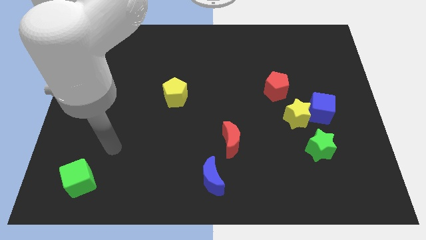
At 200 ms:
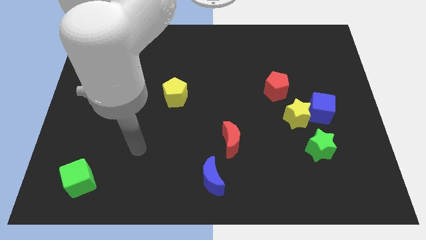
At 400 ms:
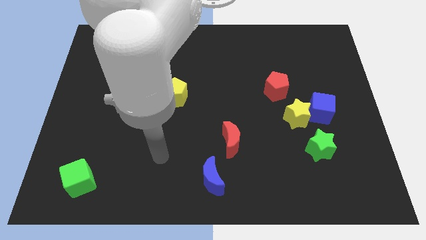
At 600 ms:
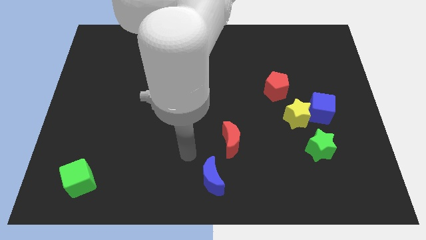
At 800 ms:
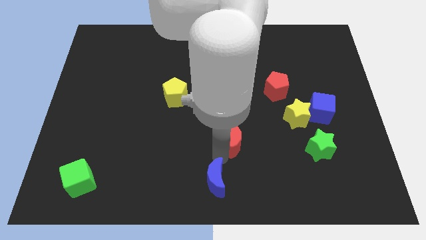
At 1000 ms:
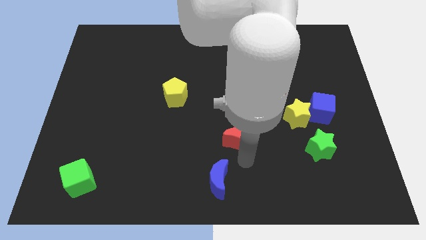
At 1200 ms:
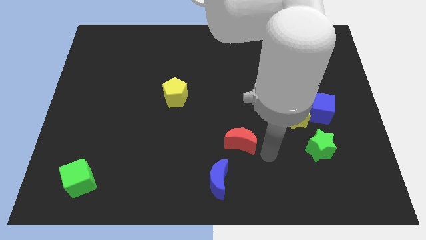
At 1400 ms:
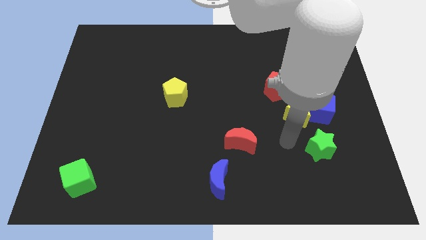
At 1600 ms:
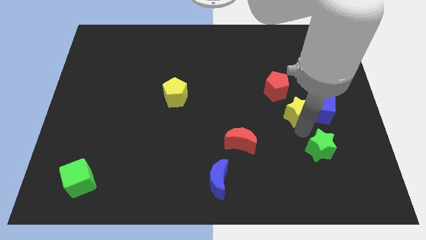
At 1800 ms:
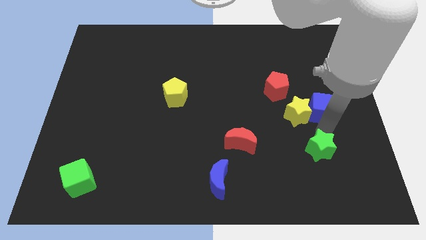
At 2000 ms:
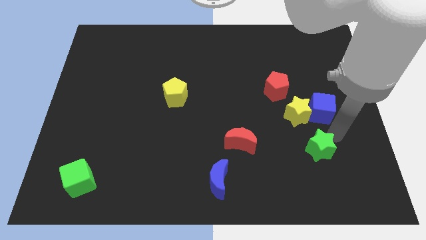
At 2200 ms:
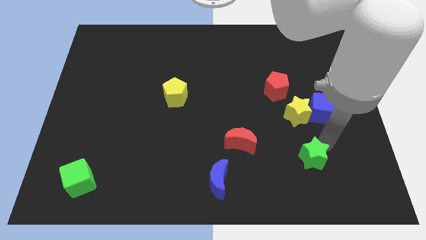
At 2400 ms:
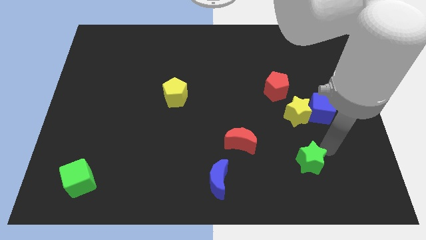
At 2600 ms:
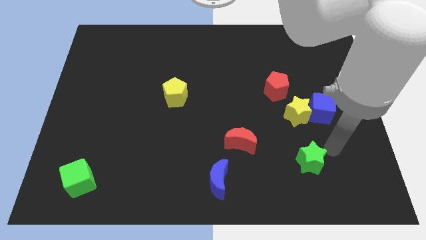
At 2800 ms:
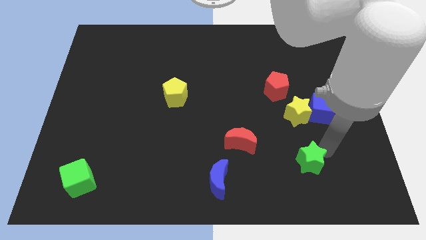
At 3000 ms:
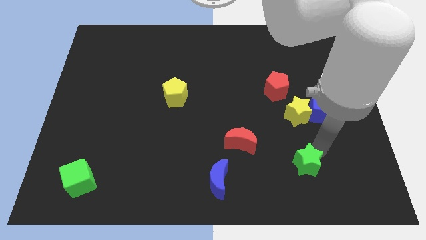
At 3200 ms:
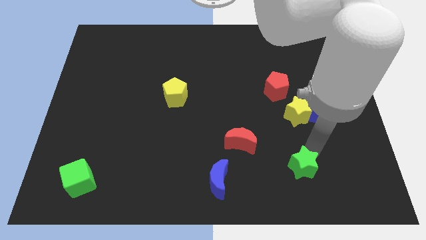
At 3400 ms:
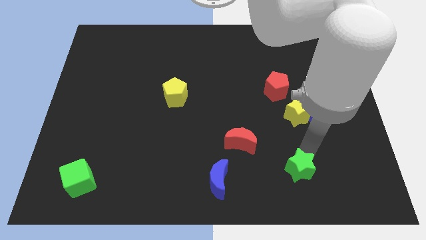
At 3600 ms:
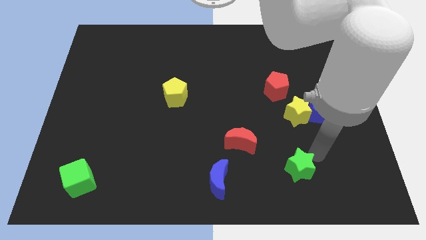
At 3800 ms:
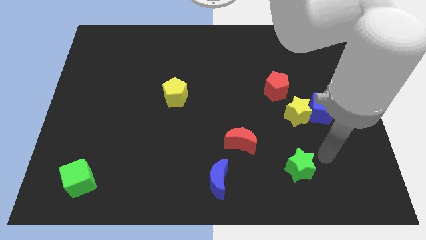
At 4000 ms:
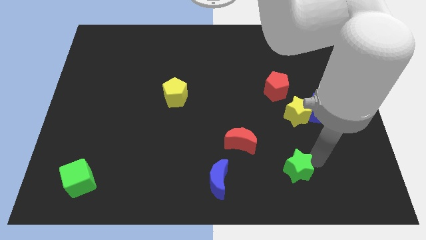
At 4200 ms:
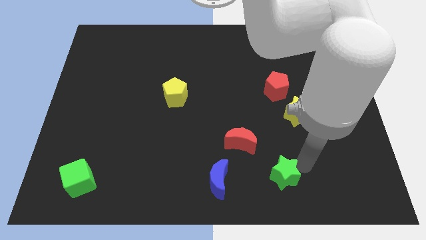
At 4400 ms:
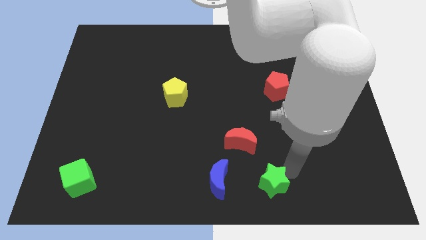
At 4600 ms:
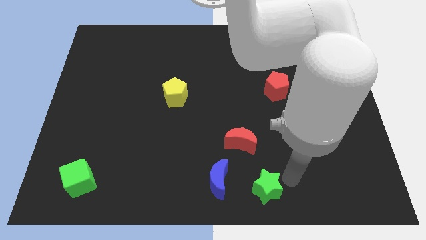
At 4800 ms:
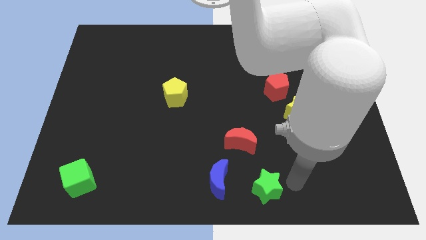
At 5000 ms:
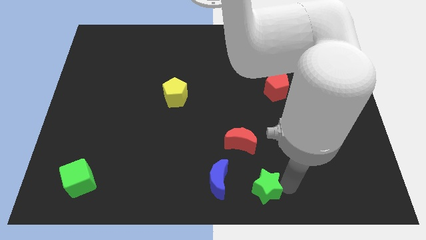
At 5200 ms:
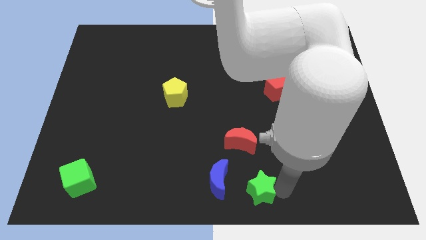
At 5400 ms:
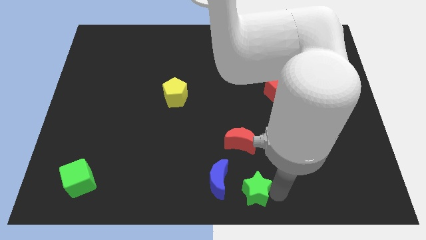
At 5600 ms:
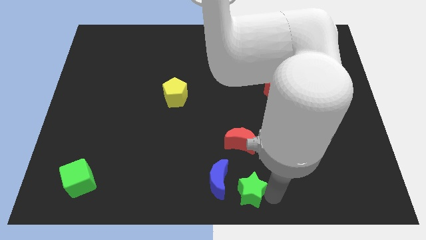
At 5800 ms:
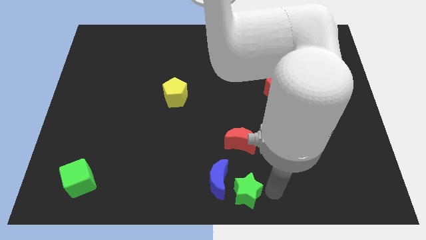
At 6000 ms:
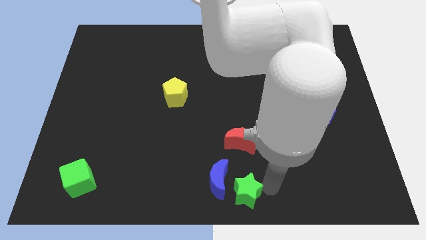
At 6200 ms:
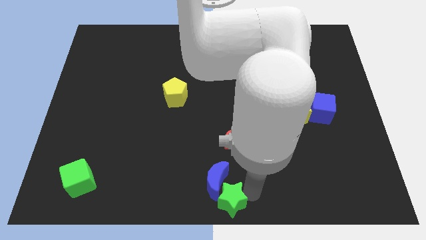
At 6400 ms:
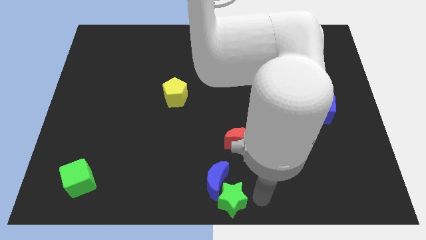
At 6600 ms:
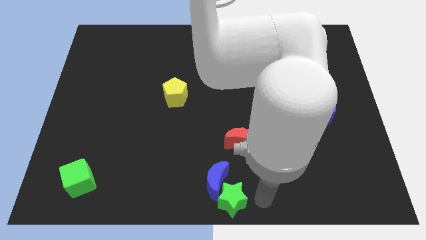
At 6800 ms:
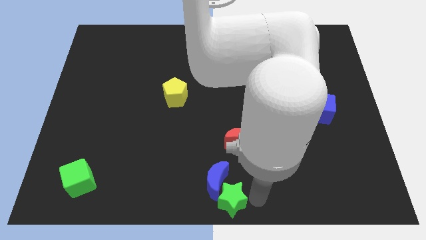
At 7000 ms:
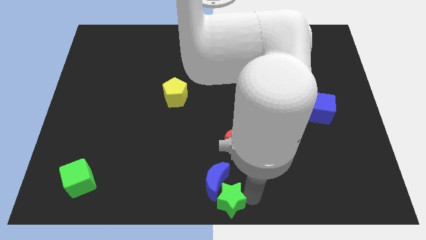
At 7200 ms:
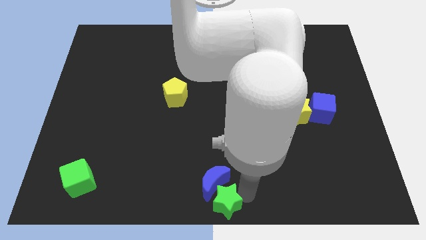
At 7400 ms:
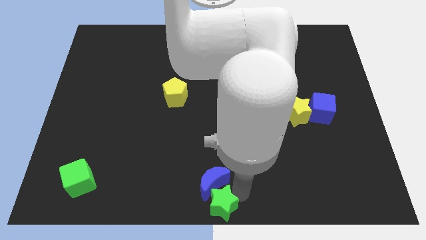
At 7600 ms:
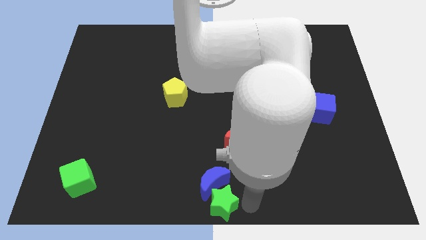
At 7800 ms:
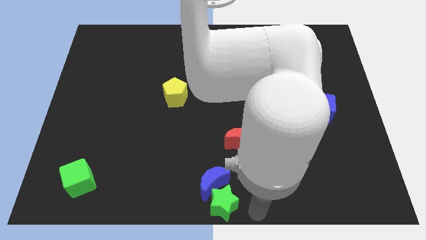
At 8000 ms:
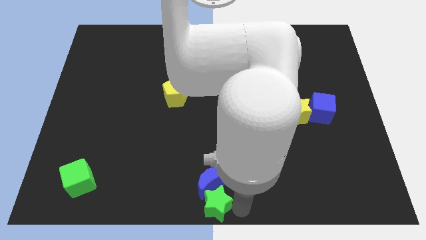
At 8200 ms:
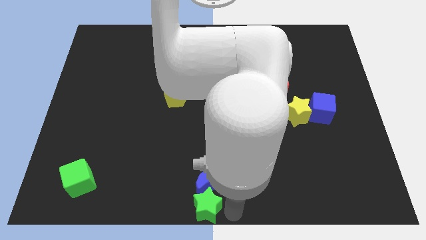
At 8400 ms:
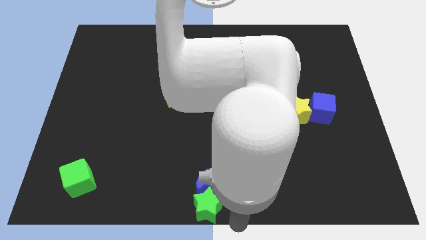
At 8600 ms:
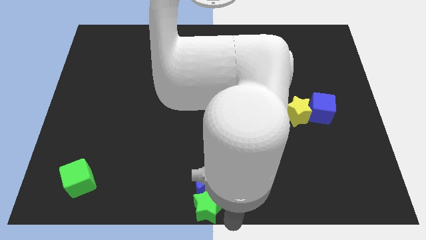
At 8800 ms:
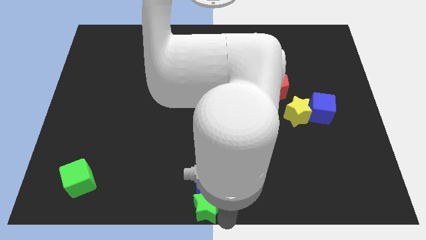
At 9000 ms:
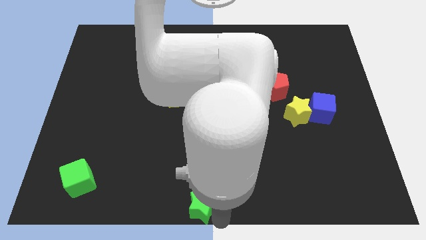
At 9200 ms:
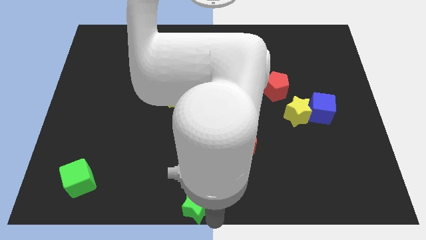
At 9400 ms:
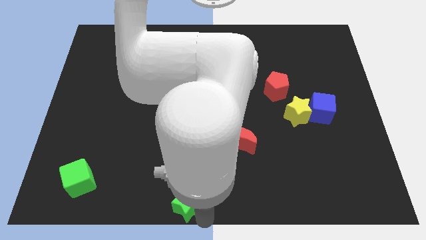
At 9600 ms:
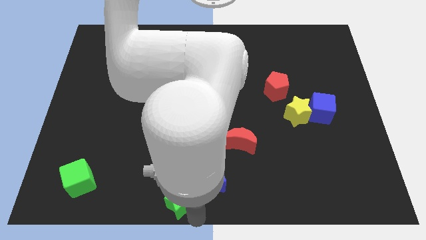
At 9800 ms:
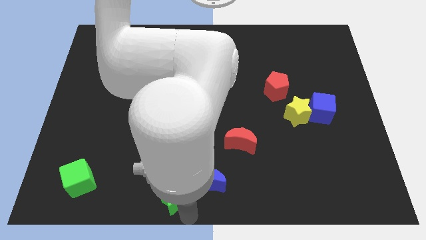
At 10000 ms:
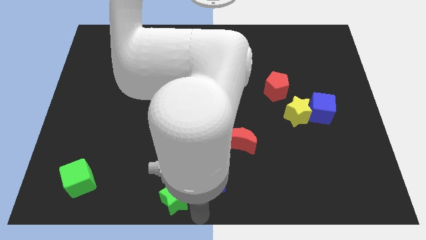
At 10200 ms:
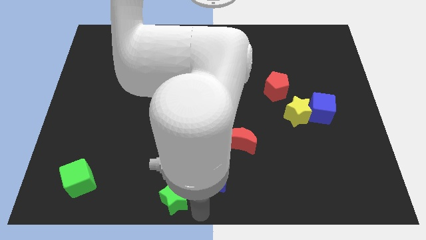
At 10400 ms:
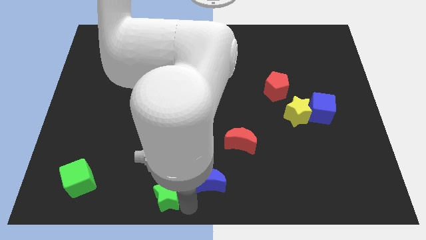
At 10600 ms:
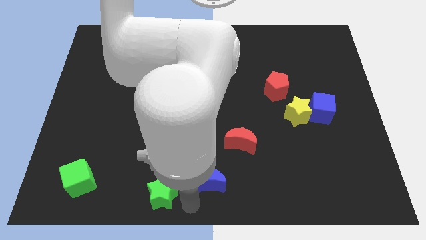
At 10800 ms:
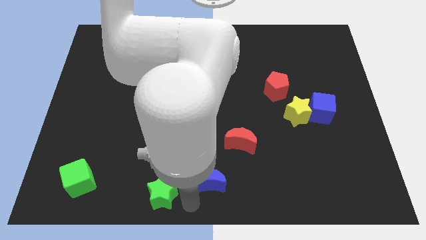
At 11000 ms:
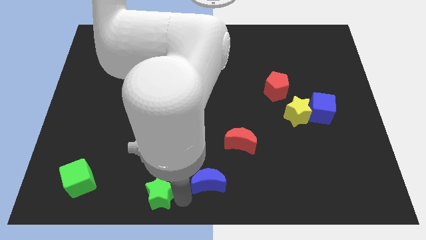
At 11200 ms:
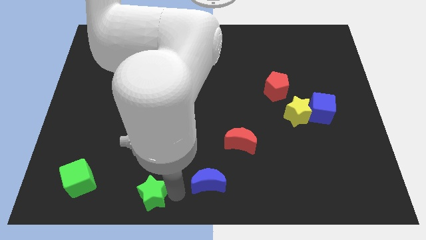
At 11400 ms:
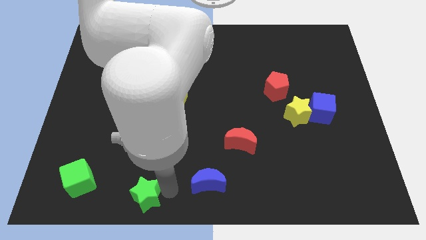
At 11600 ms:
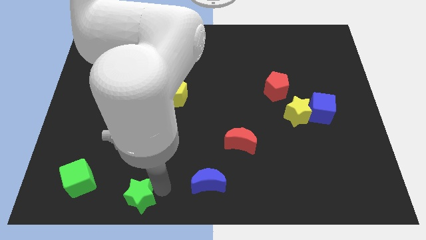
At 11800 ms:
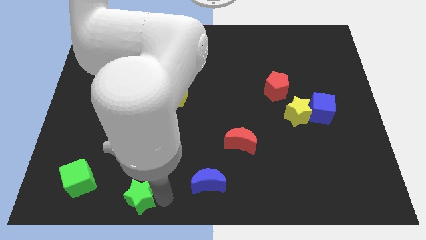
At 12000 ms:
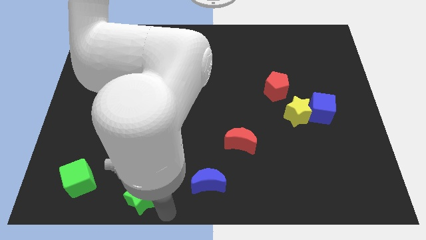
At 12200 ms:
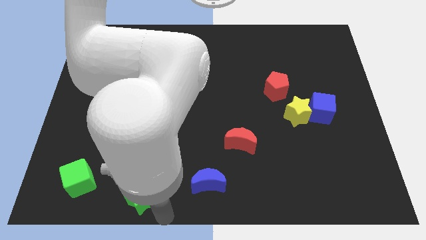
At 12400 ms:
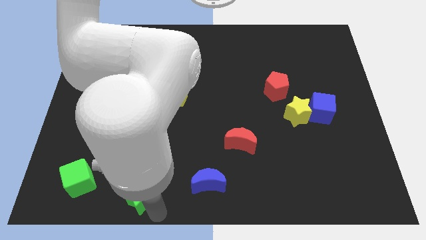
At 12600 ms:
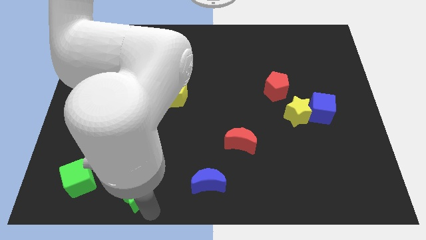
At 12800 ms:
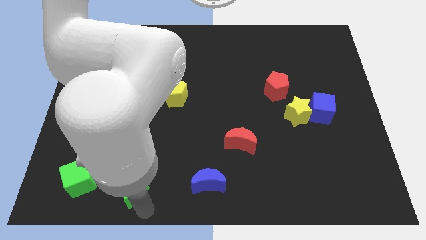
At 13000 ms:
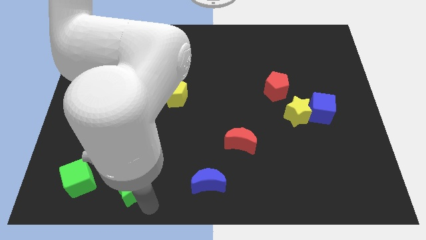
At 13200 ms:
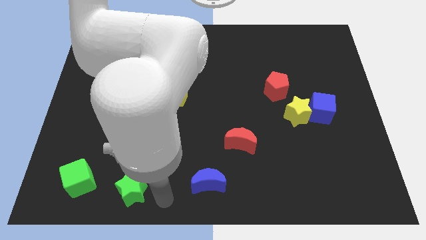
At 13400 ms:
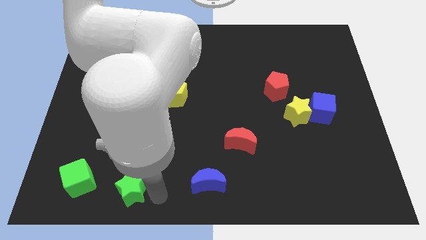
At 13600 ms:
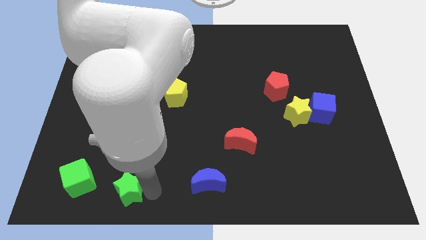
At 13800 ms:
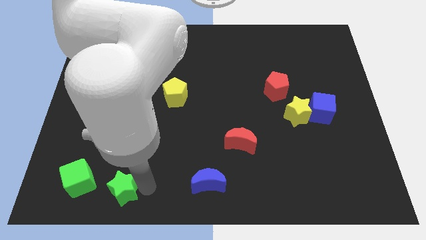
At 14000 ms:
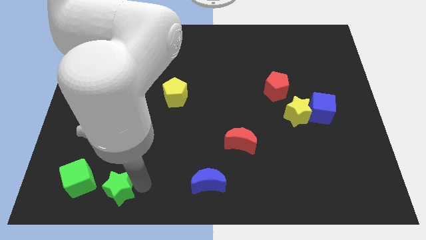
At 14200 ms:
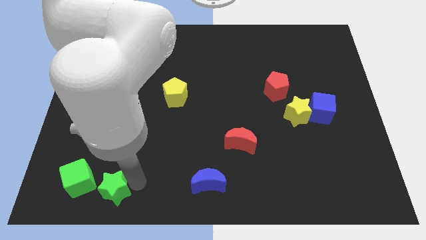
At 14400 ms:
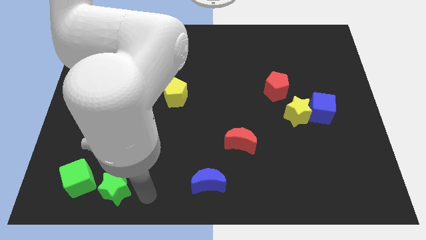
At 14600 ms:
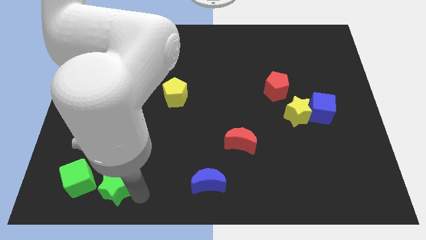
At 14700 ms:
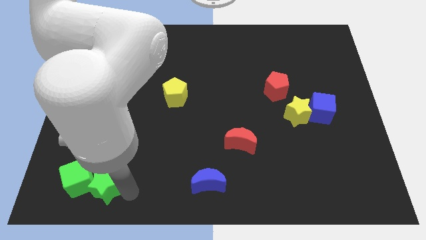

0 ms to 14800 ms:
put the green star close to the green cube

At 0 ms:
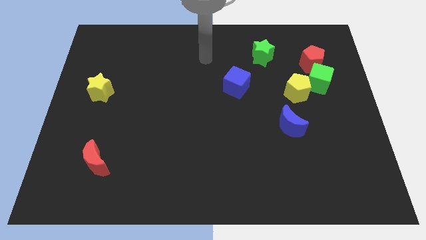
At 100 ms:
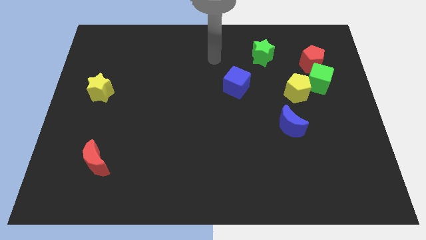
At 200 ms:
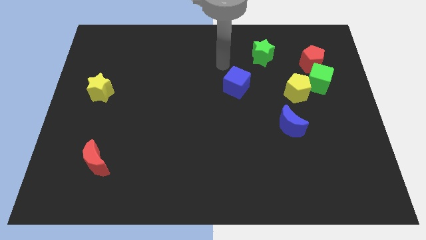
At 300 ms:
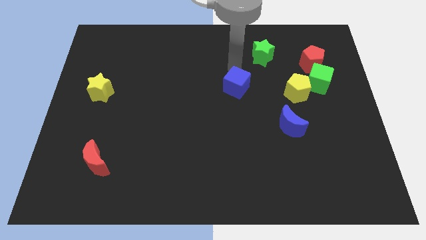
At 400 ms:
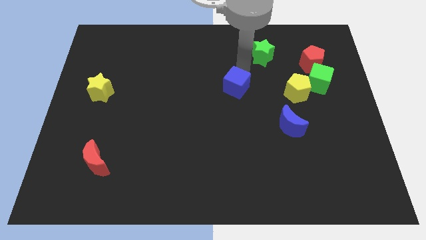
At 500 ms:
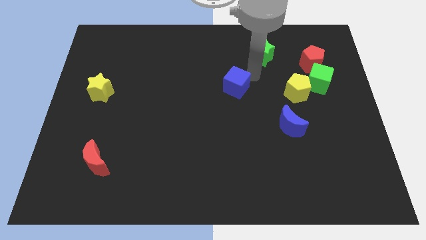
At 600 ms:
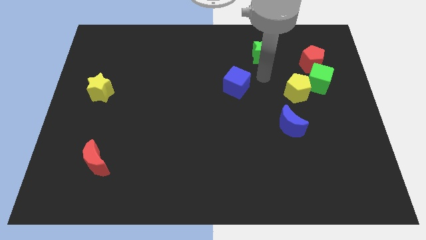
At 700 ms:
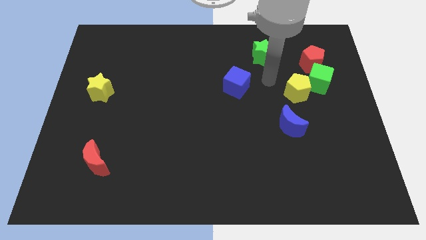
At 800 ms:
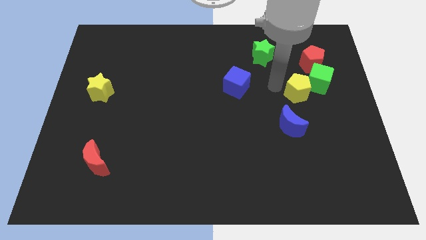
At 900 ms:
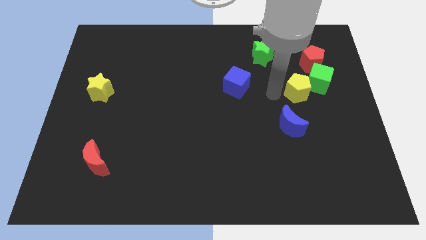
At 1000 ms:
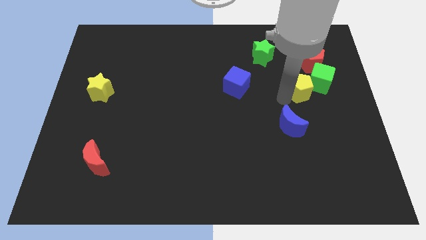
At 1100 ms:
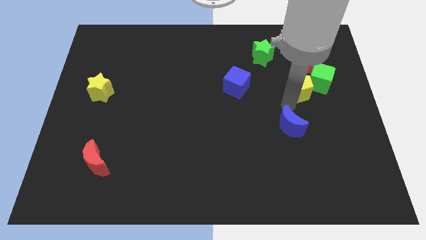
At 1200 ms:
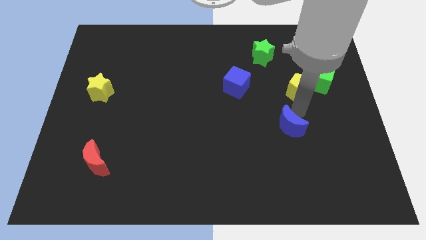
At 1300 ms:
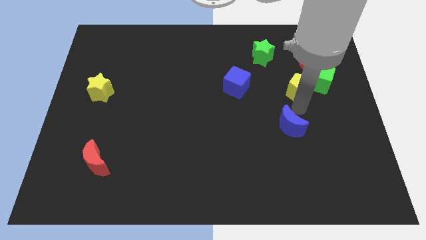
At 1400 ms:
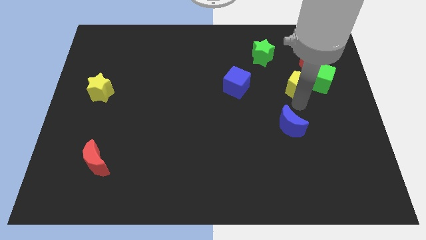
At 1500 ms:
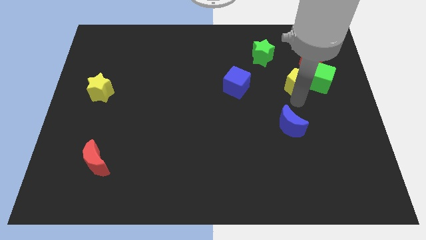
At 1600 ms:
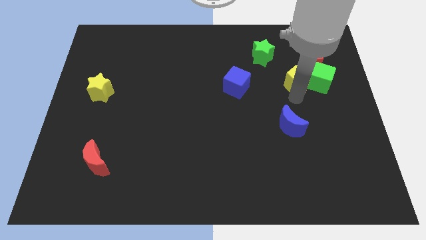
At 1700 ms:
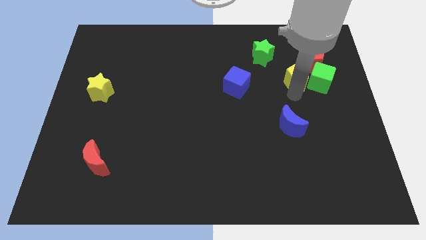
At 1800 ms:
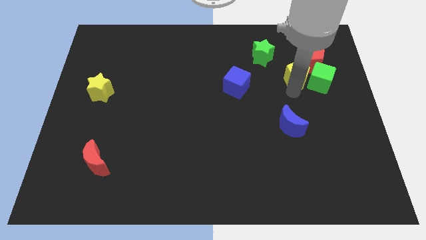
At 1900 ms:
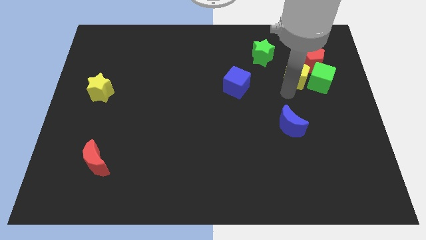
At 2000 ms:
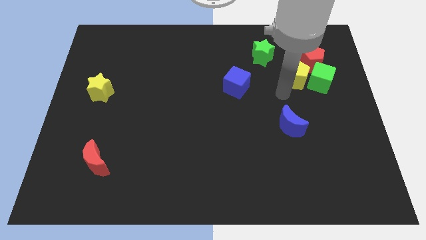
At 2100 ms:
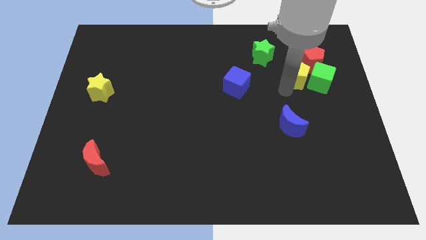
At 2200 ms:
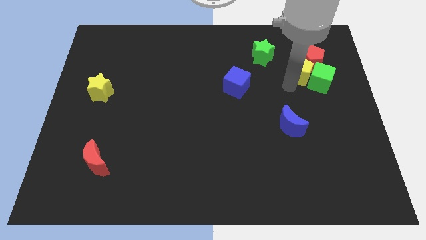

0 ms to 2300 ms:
push the yellow pentagon to the red pentagon
